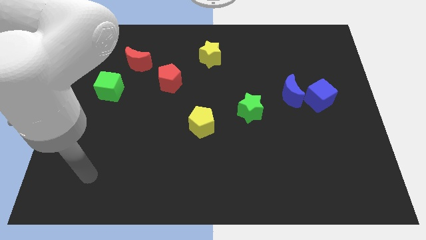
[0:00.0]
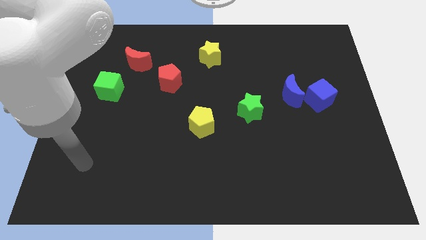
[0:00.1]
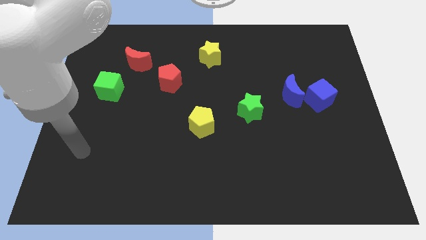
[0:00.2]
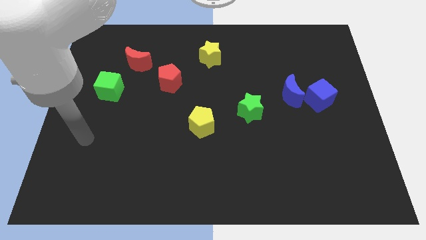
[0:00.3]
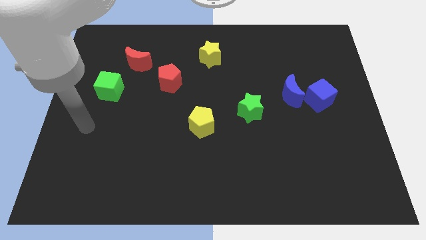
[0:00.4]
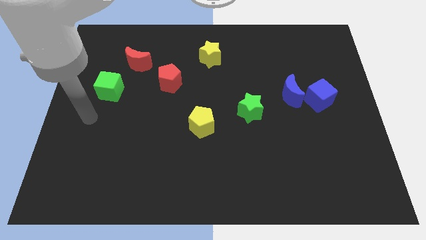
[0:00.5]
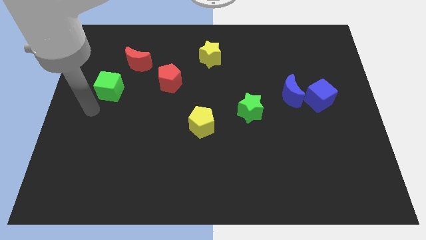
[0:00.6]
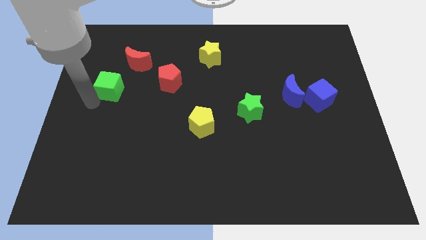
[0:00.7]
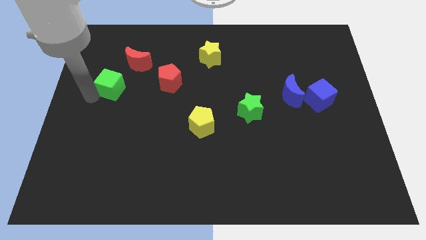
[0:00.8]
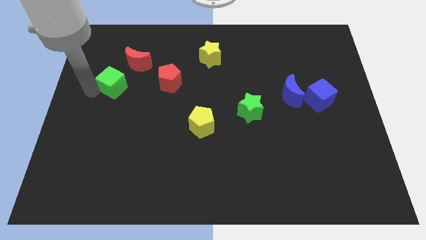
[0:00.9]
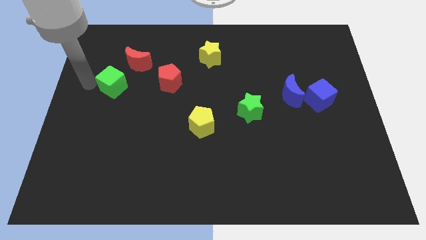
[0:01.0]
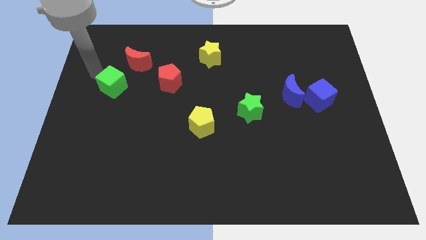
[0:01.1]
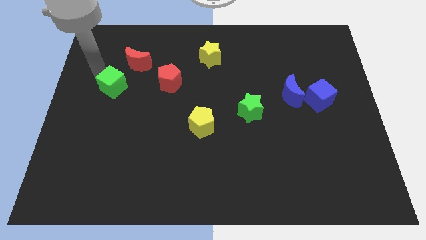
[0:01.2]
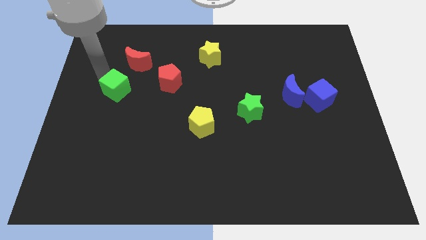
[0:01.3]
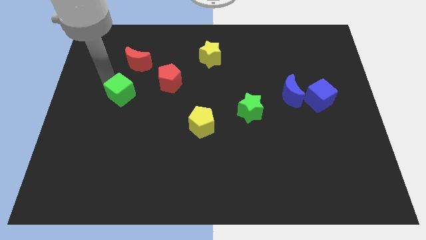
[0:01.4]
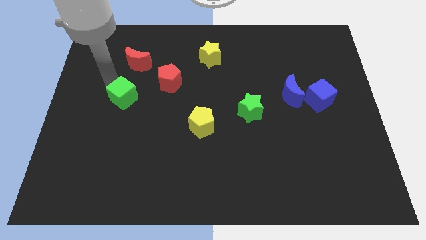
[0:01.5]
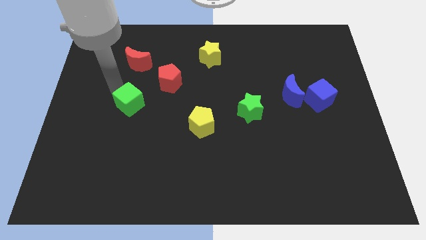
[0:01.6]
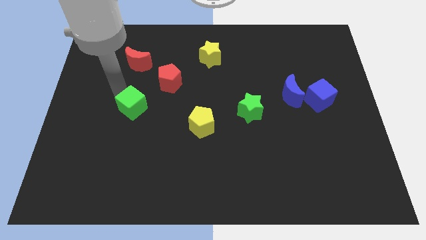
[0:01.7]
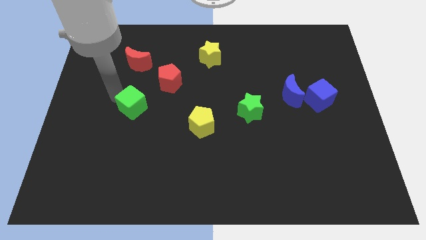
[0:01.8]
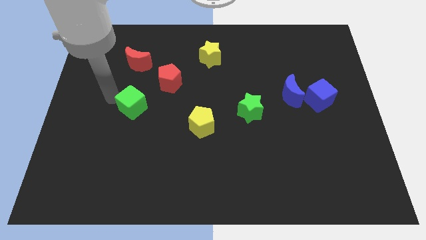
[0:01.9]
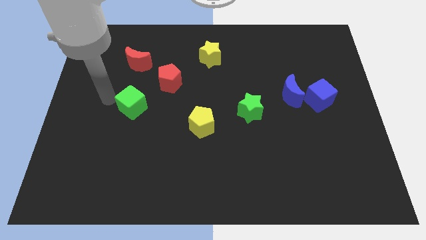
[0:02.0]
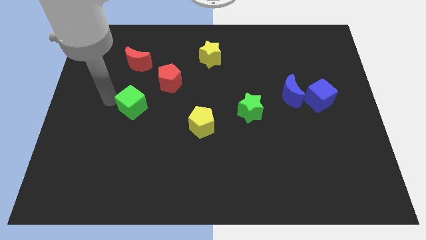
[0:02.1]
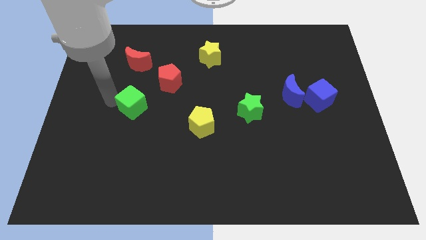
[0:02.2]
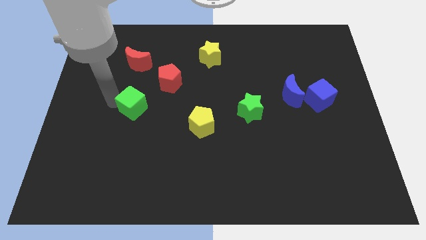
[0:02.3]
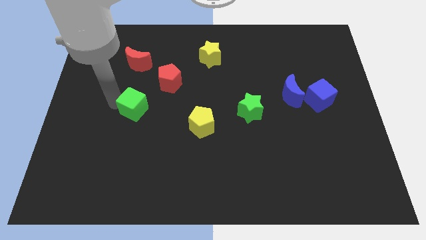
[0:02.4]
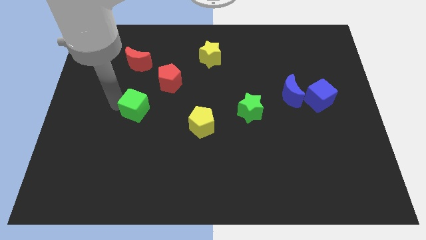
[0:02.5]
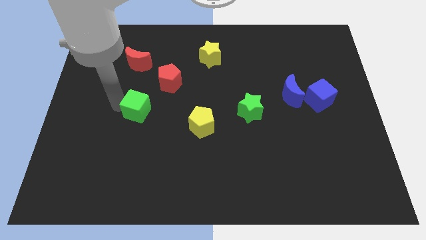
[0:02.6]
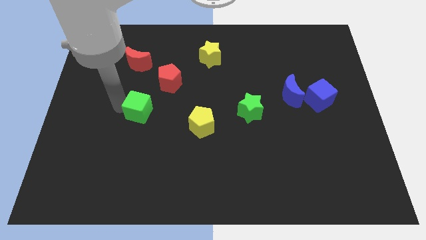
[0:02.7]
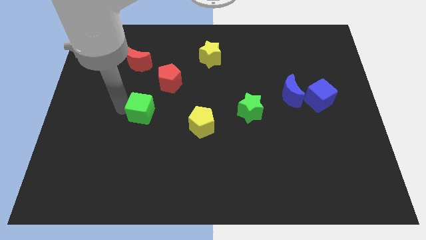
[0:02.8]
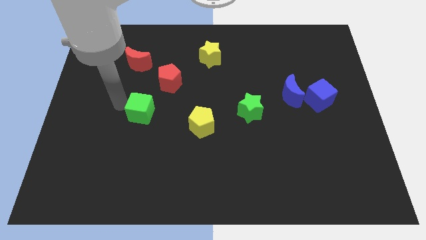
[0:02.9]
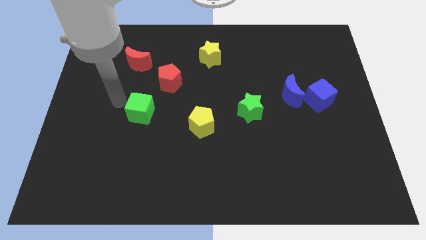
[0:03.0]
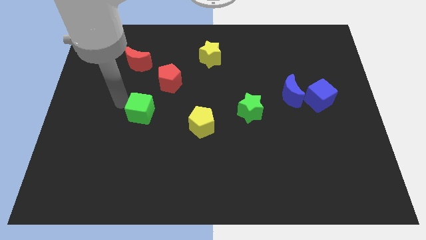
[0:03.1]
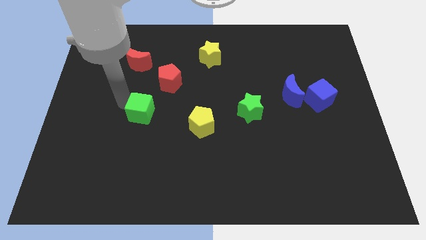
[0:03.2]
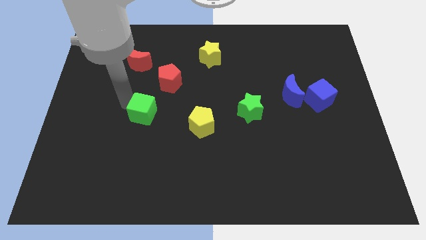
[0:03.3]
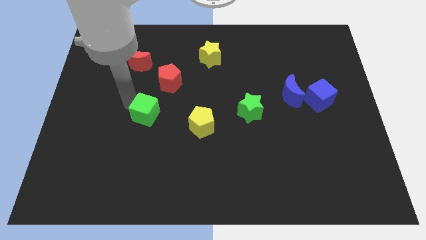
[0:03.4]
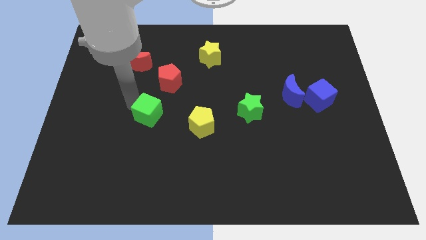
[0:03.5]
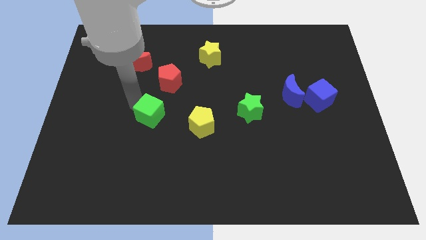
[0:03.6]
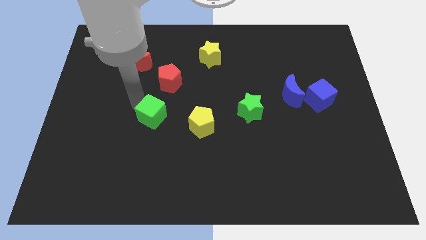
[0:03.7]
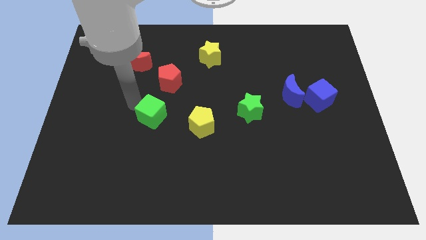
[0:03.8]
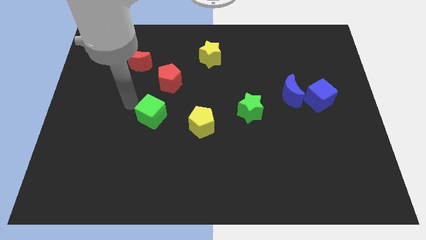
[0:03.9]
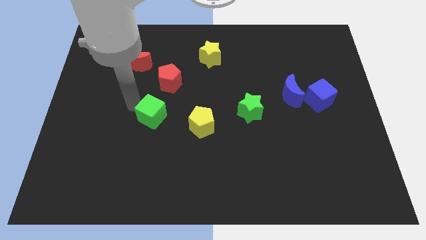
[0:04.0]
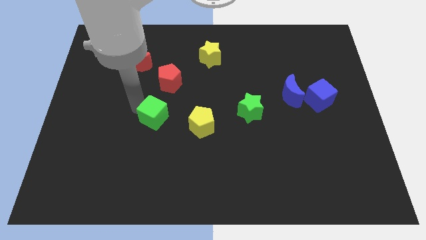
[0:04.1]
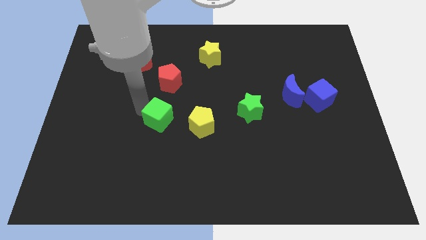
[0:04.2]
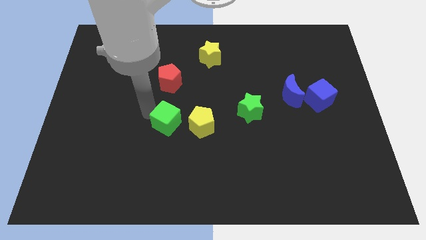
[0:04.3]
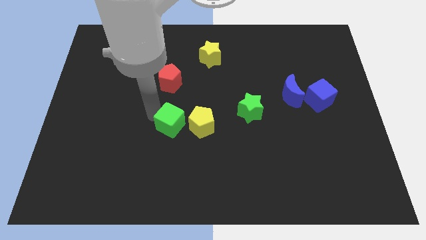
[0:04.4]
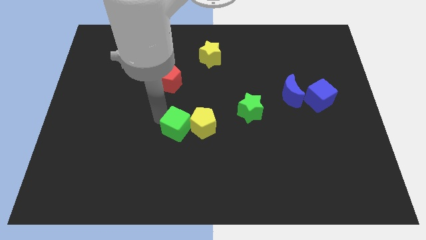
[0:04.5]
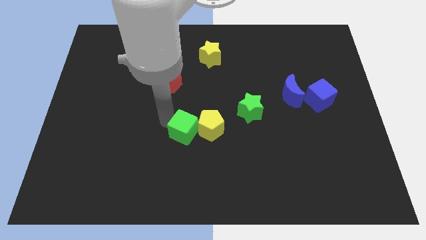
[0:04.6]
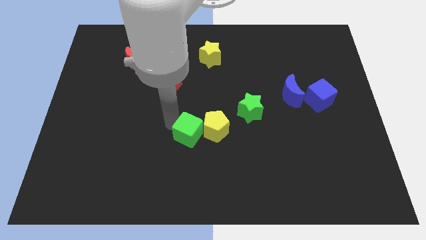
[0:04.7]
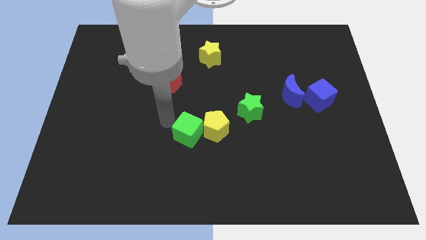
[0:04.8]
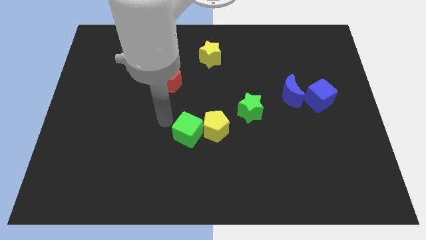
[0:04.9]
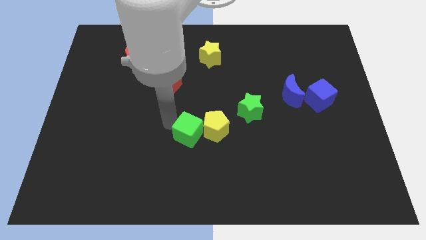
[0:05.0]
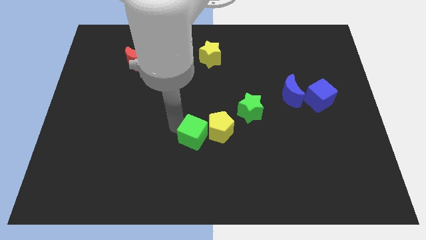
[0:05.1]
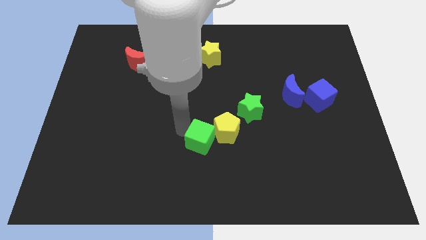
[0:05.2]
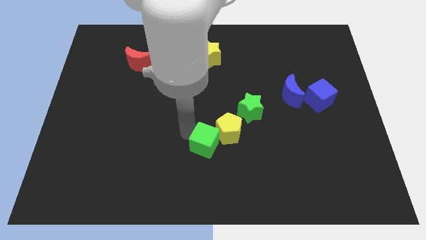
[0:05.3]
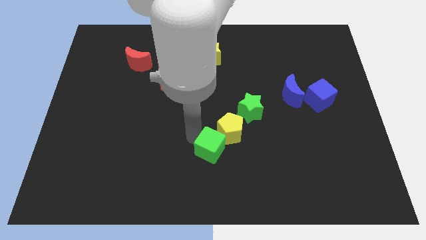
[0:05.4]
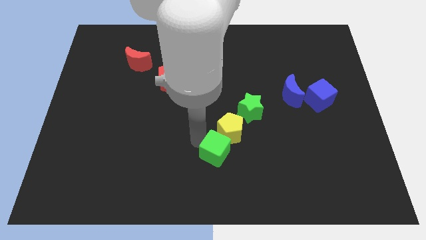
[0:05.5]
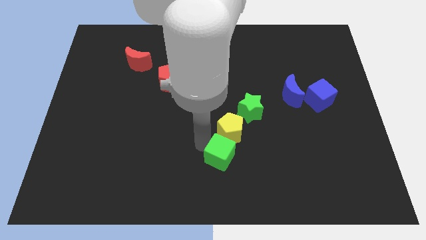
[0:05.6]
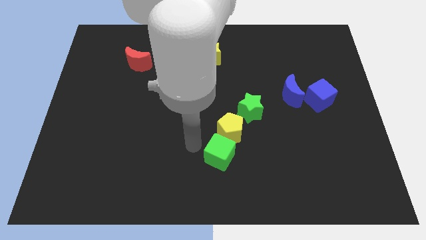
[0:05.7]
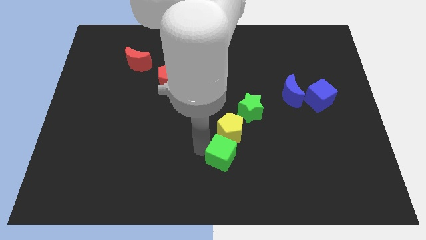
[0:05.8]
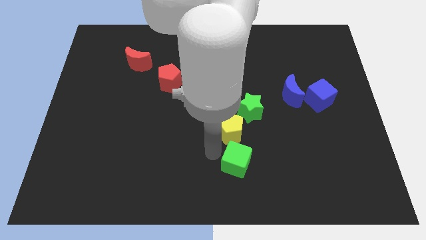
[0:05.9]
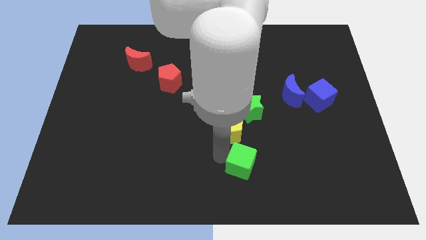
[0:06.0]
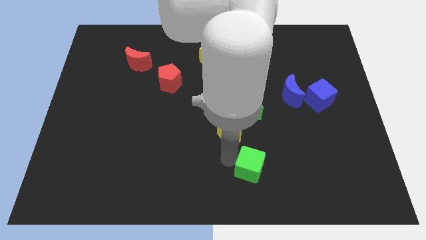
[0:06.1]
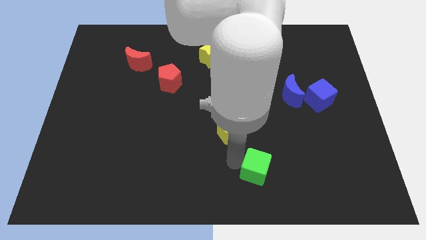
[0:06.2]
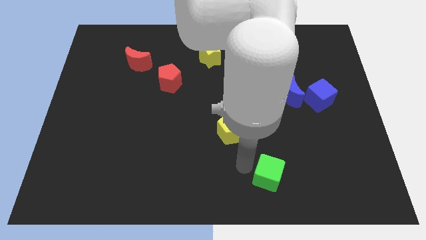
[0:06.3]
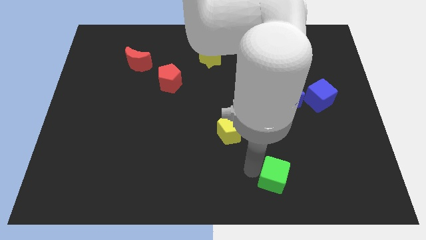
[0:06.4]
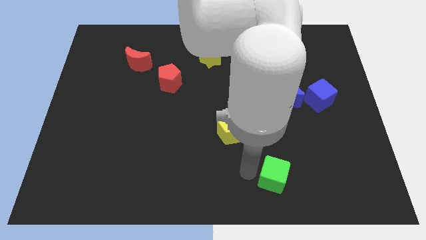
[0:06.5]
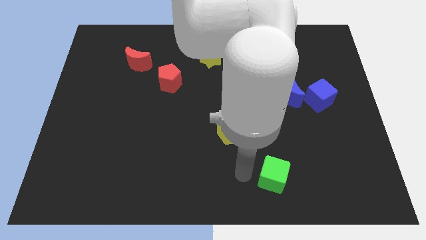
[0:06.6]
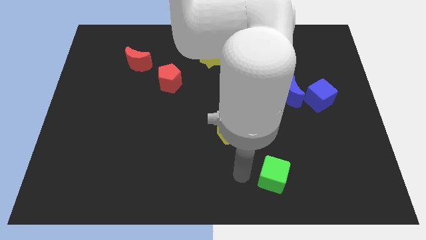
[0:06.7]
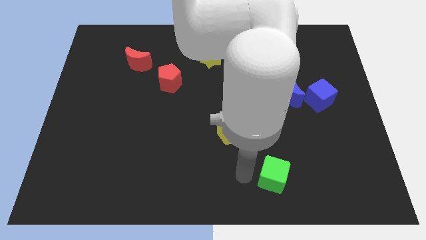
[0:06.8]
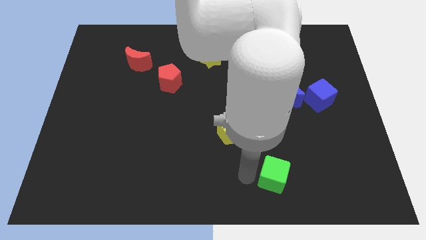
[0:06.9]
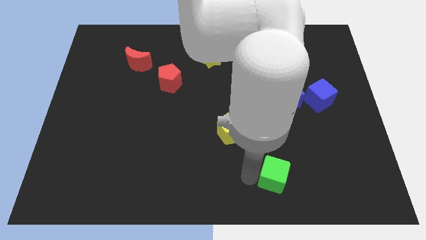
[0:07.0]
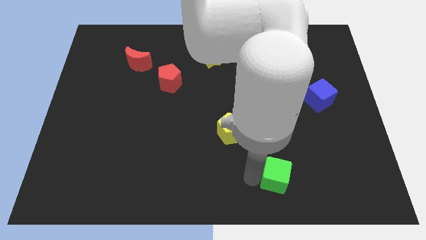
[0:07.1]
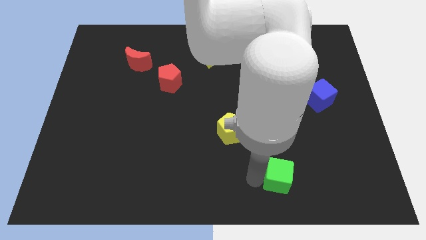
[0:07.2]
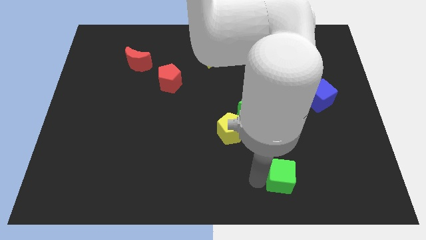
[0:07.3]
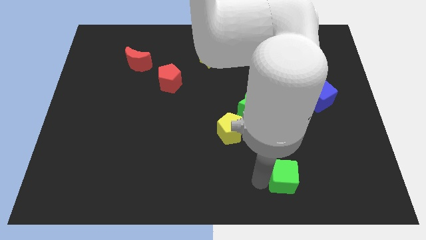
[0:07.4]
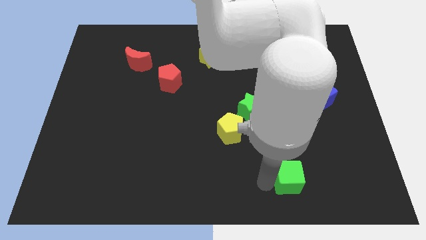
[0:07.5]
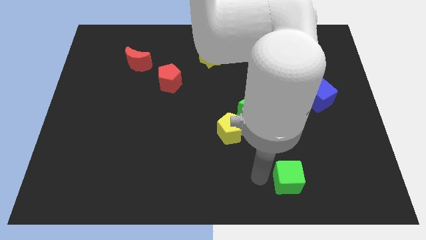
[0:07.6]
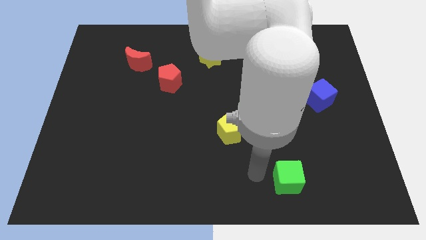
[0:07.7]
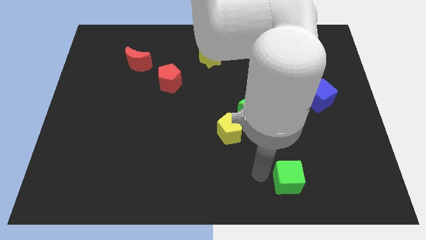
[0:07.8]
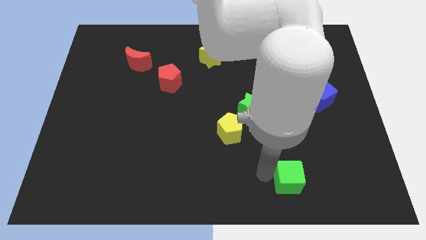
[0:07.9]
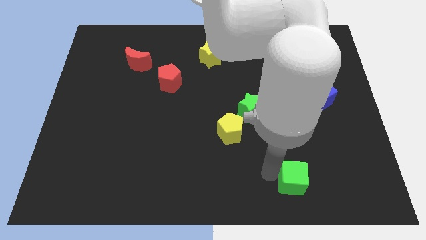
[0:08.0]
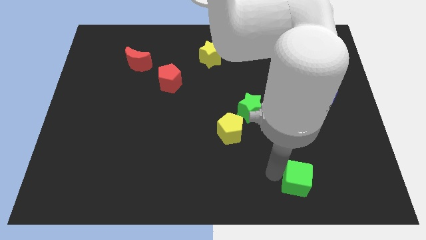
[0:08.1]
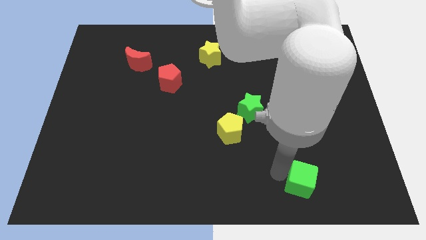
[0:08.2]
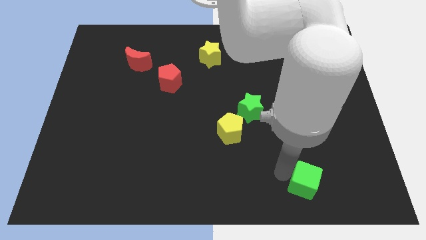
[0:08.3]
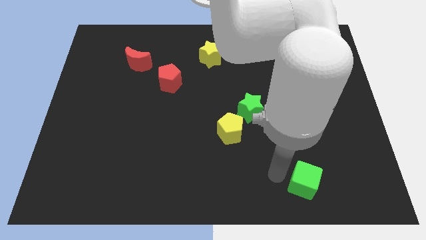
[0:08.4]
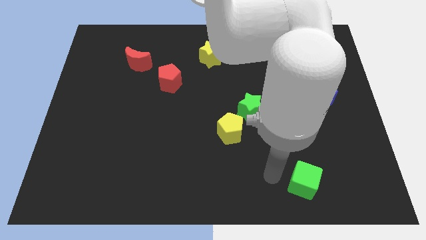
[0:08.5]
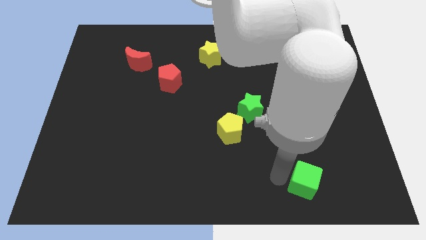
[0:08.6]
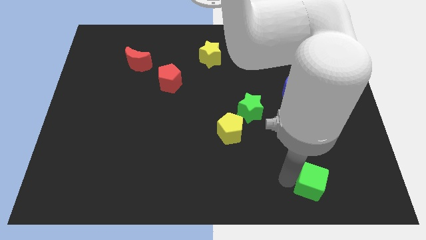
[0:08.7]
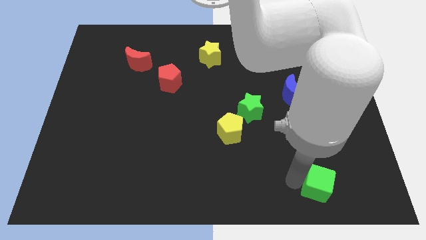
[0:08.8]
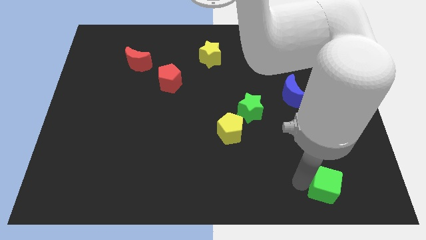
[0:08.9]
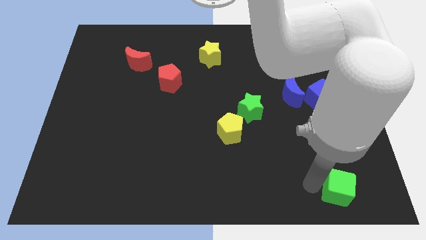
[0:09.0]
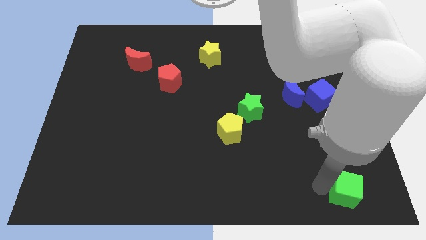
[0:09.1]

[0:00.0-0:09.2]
push the green cube to the bottom right corner
